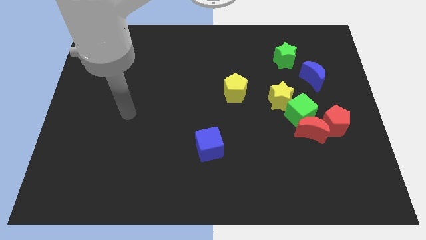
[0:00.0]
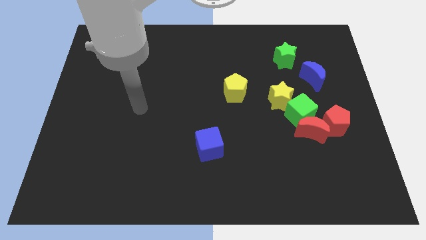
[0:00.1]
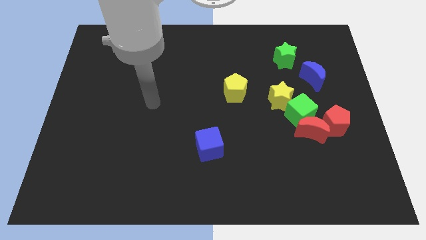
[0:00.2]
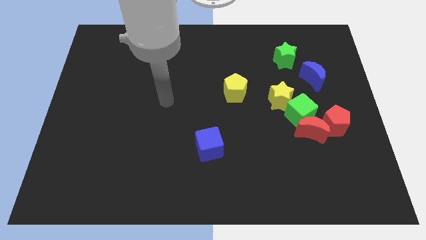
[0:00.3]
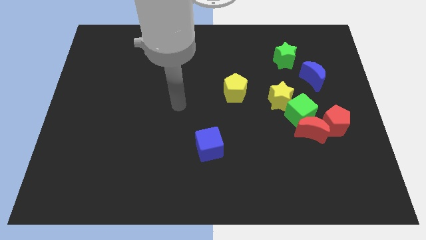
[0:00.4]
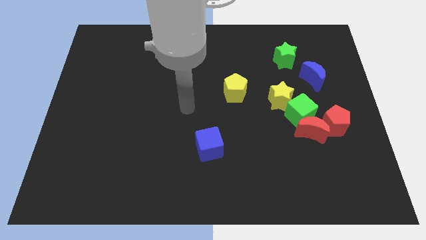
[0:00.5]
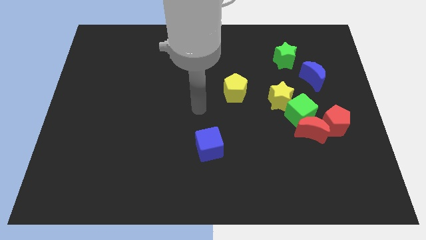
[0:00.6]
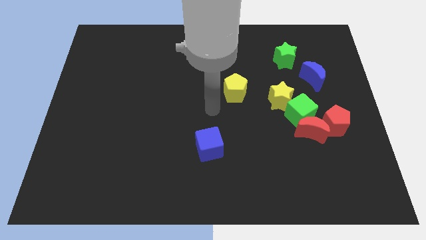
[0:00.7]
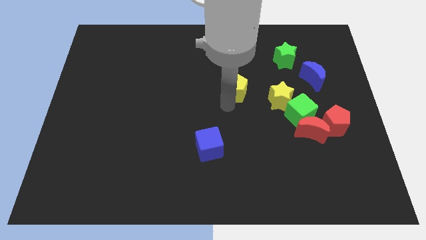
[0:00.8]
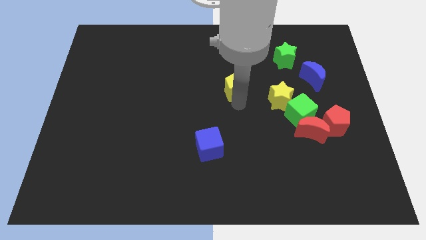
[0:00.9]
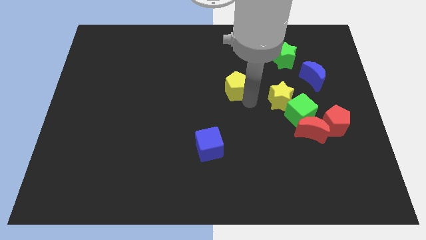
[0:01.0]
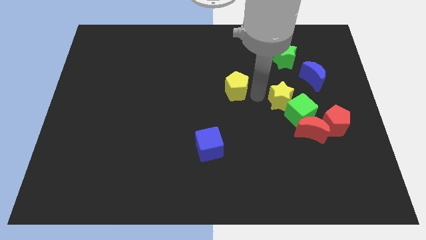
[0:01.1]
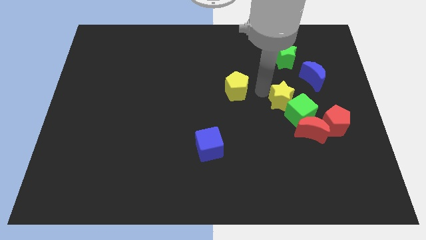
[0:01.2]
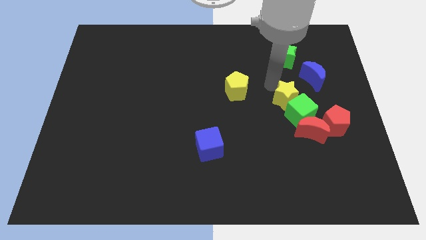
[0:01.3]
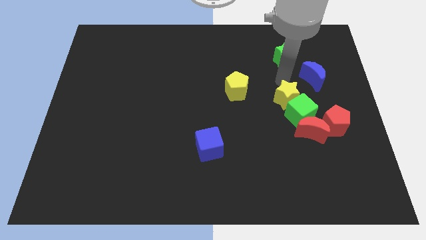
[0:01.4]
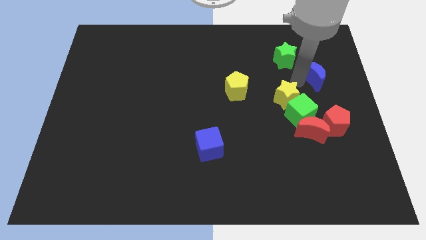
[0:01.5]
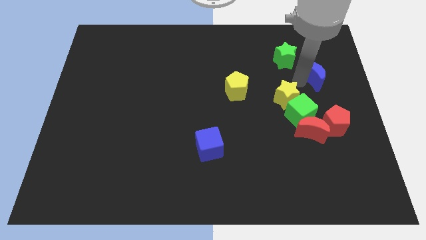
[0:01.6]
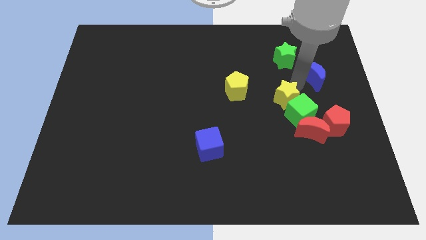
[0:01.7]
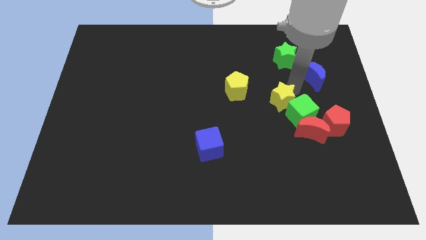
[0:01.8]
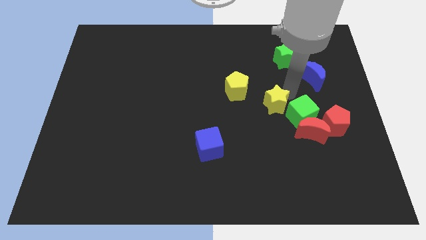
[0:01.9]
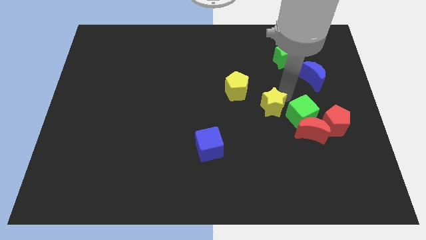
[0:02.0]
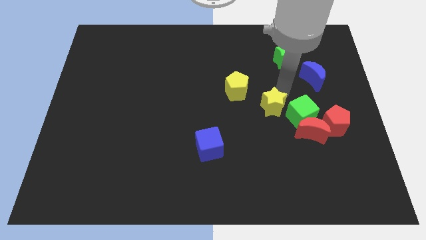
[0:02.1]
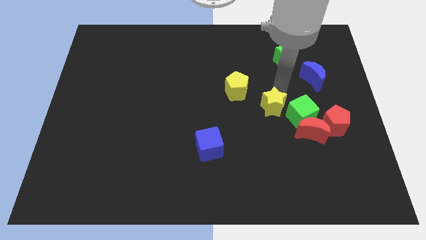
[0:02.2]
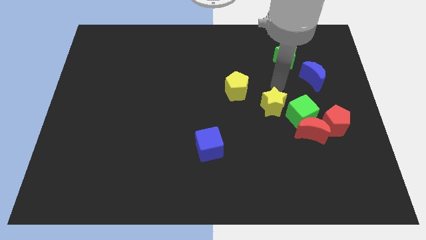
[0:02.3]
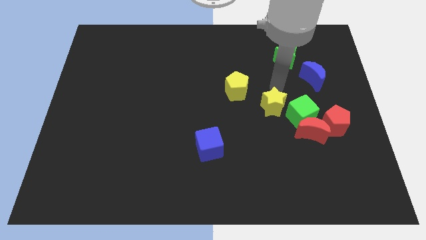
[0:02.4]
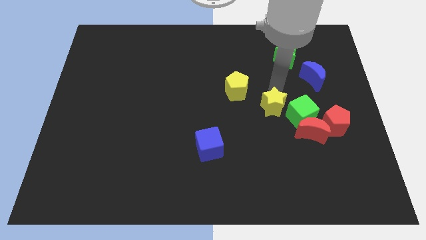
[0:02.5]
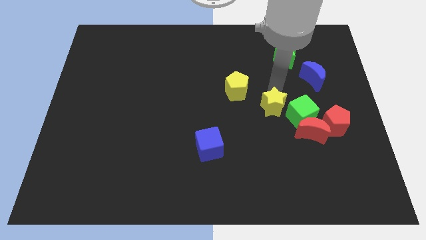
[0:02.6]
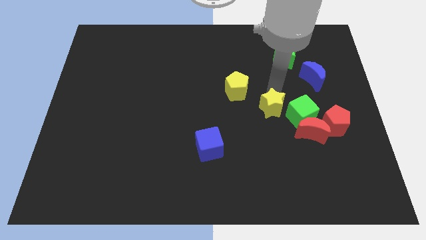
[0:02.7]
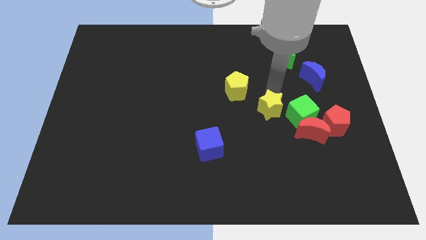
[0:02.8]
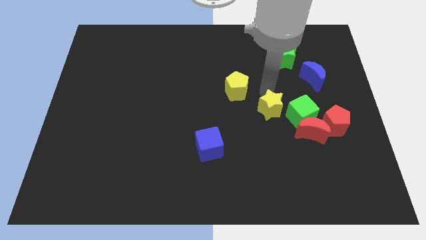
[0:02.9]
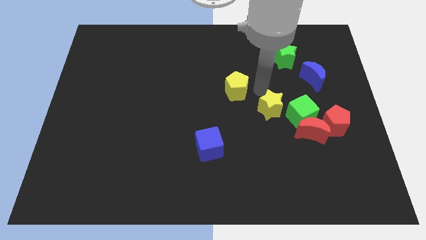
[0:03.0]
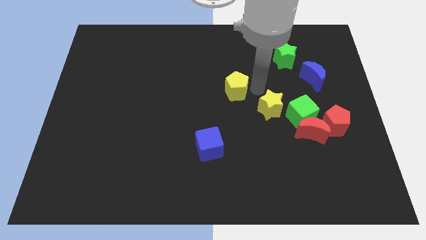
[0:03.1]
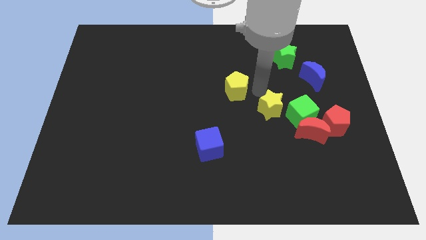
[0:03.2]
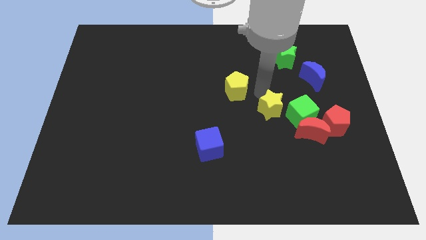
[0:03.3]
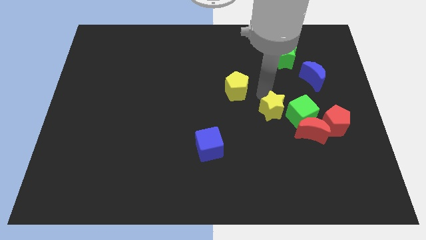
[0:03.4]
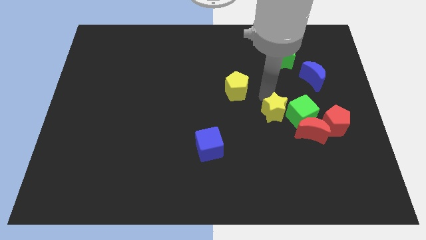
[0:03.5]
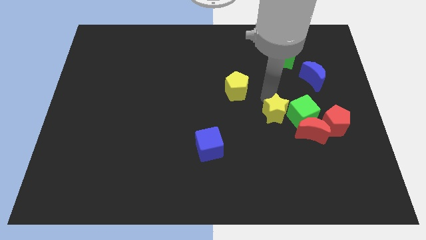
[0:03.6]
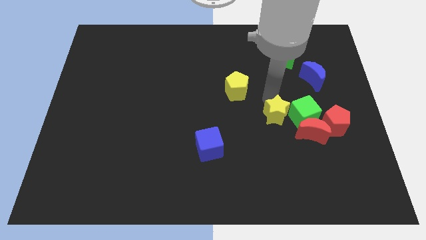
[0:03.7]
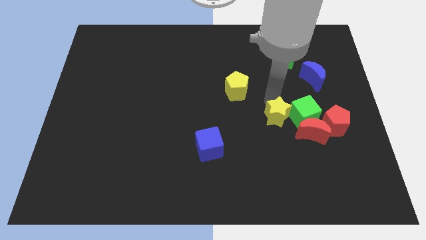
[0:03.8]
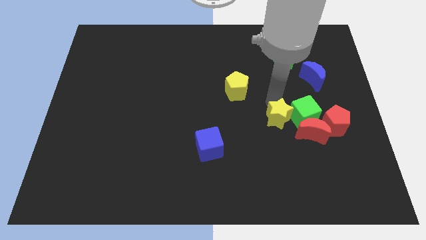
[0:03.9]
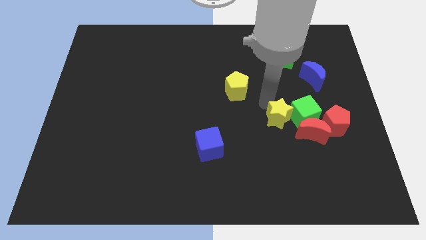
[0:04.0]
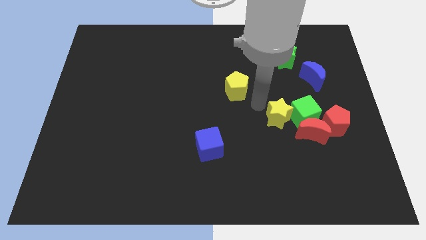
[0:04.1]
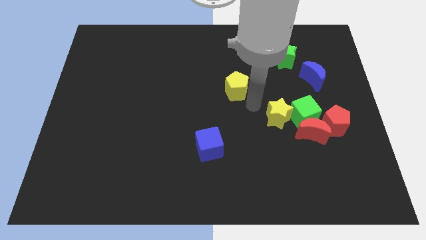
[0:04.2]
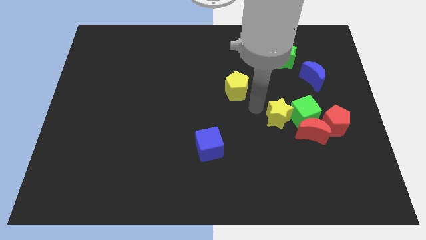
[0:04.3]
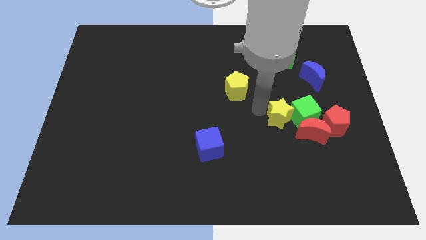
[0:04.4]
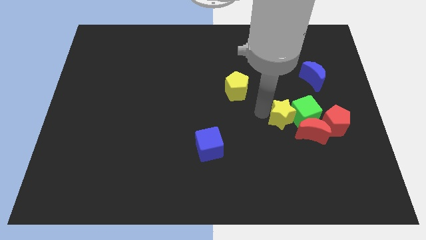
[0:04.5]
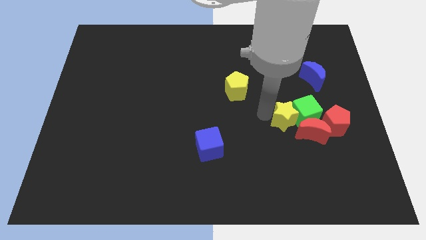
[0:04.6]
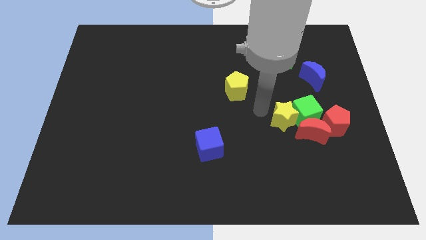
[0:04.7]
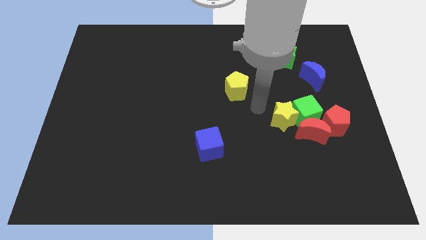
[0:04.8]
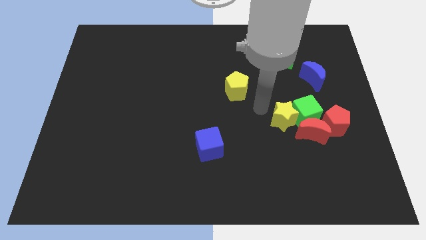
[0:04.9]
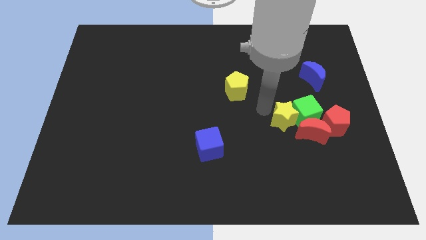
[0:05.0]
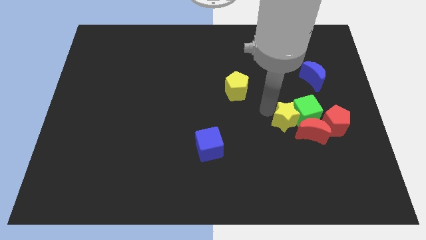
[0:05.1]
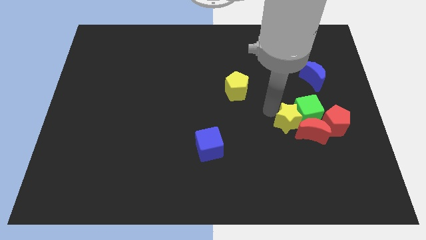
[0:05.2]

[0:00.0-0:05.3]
slide the yellow star to the red moon

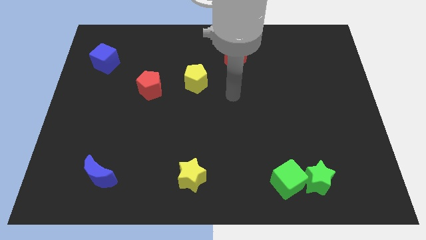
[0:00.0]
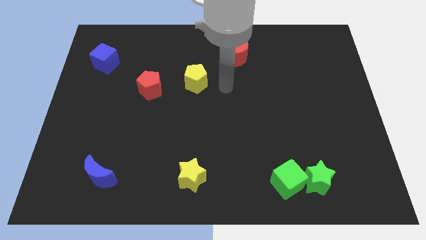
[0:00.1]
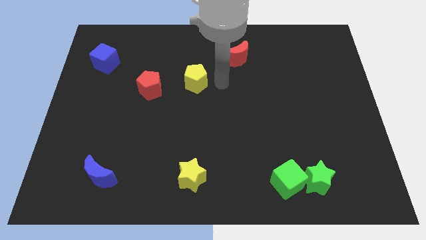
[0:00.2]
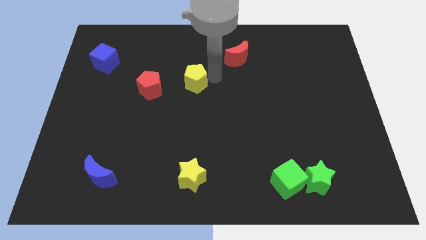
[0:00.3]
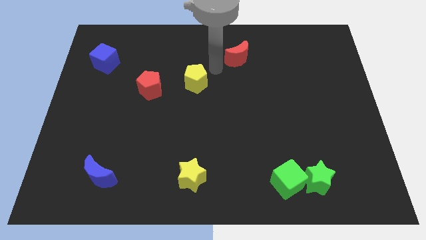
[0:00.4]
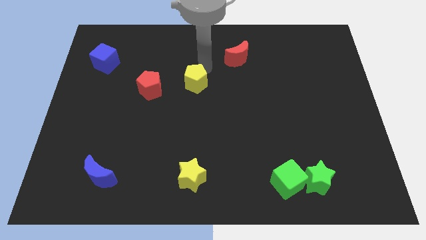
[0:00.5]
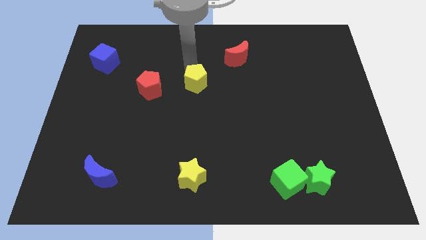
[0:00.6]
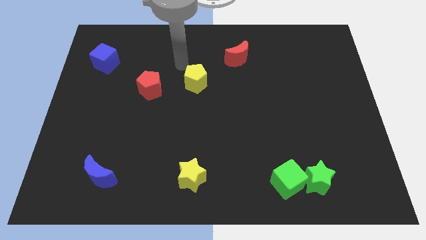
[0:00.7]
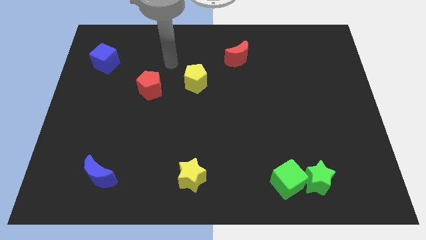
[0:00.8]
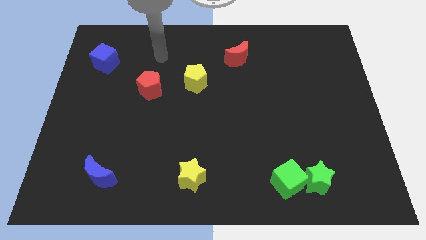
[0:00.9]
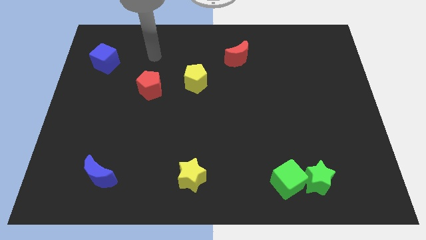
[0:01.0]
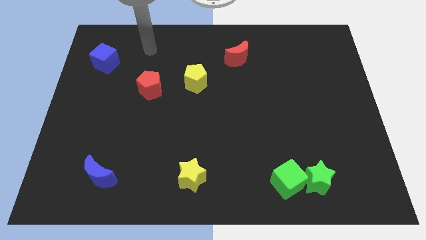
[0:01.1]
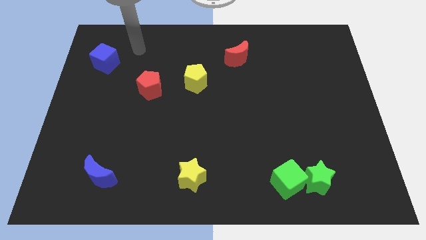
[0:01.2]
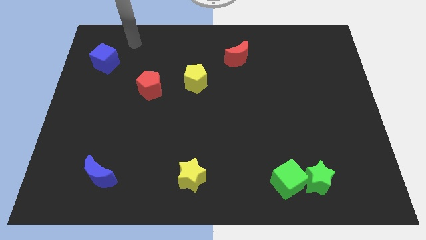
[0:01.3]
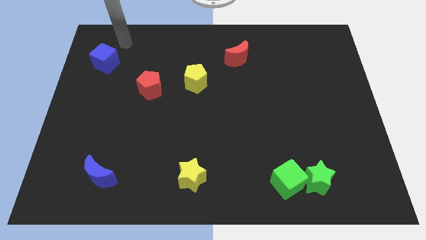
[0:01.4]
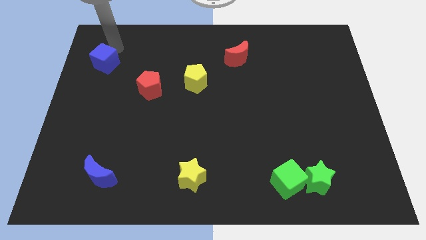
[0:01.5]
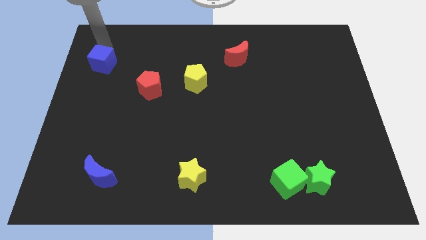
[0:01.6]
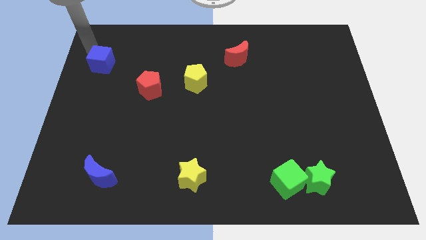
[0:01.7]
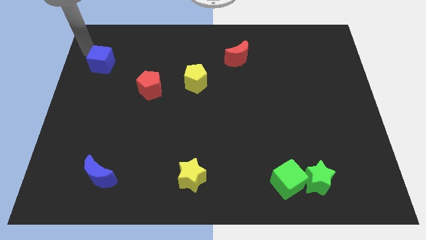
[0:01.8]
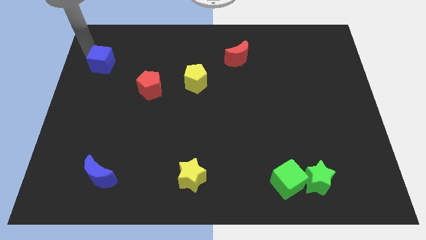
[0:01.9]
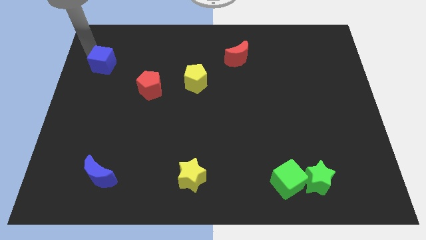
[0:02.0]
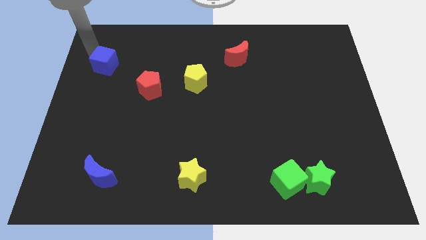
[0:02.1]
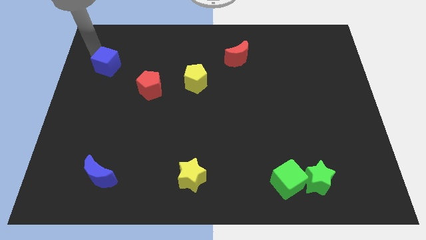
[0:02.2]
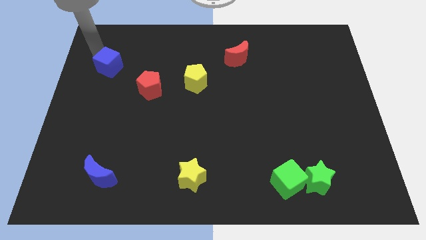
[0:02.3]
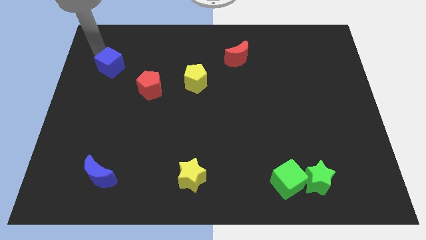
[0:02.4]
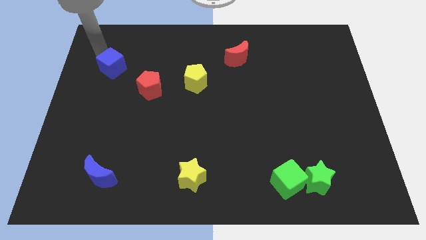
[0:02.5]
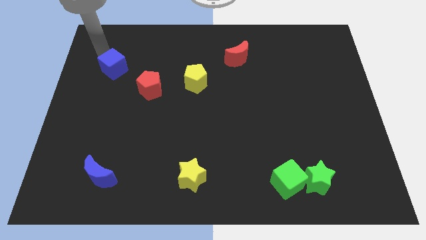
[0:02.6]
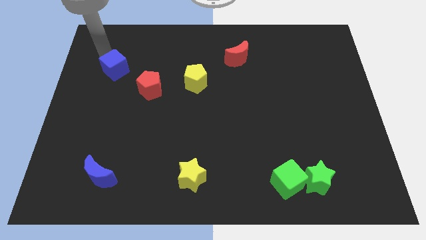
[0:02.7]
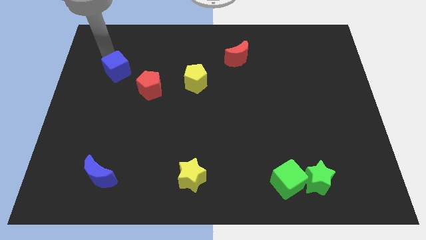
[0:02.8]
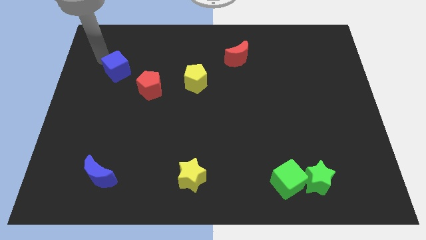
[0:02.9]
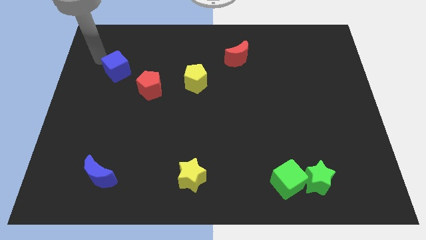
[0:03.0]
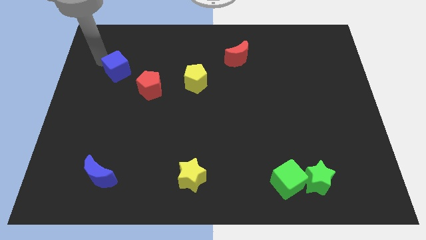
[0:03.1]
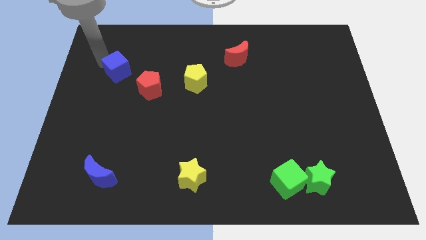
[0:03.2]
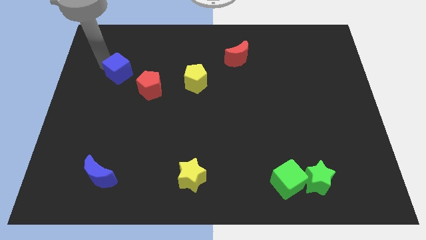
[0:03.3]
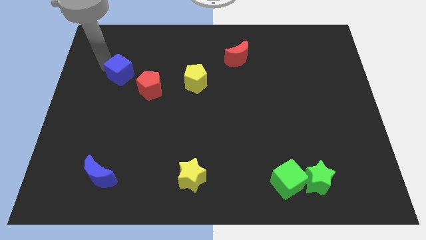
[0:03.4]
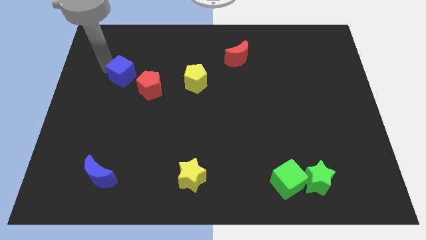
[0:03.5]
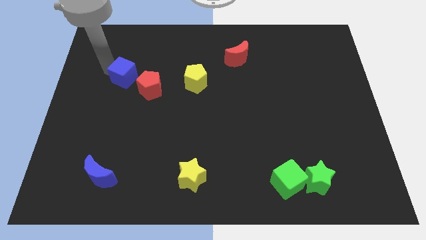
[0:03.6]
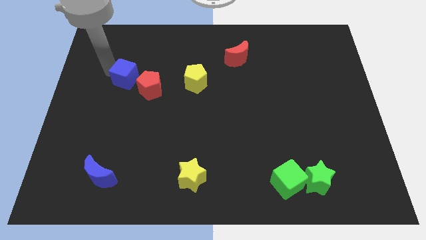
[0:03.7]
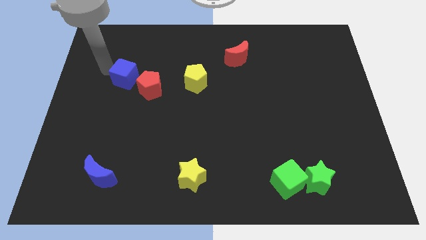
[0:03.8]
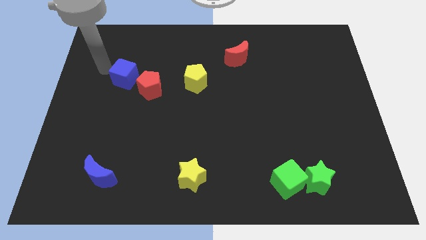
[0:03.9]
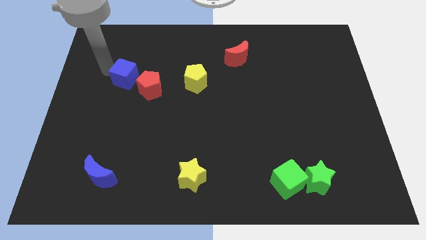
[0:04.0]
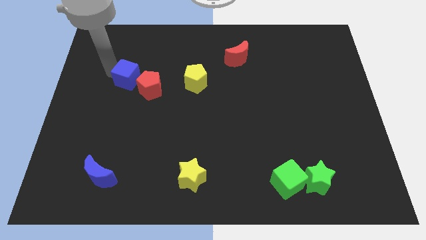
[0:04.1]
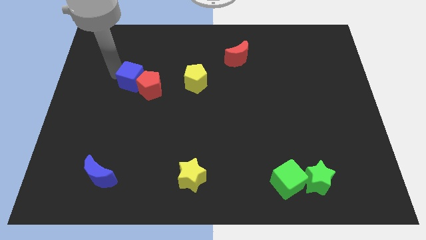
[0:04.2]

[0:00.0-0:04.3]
put the blue cube to the red pentagon
